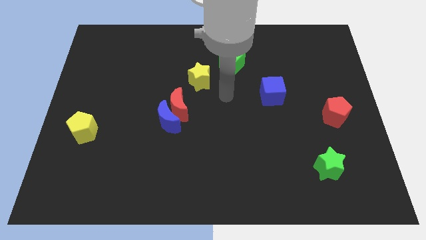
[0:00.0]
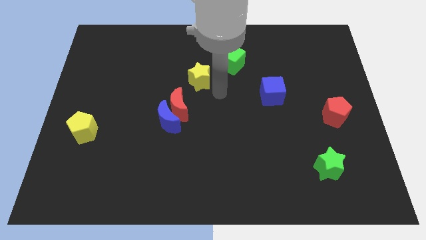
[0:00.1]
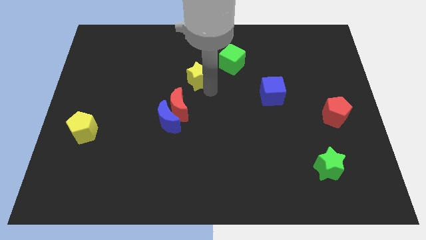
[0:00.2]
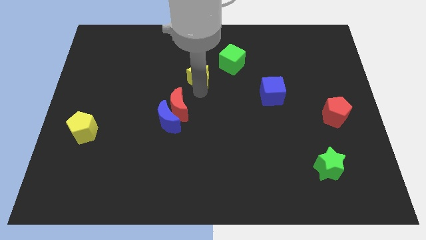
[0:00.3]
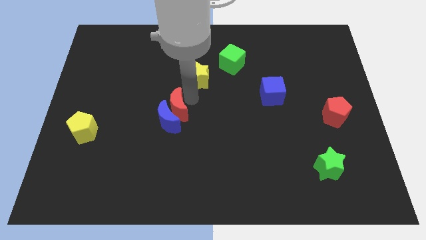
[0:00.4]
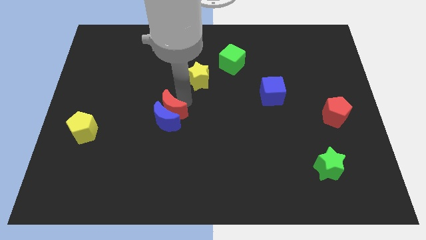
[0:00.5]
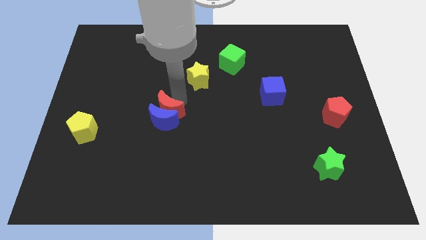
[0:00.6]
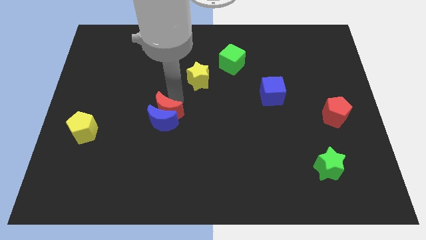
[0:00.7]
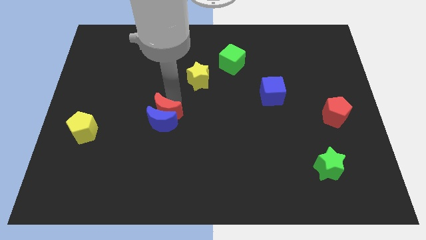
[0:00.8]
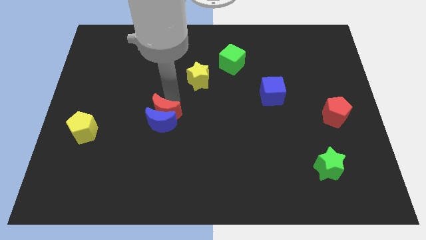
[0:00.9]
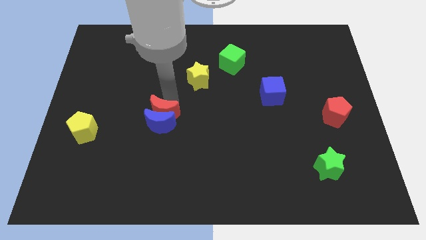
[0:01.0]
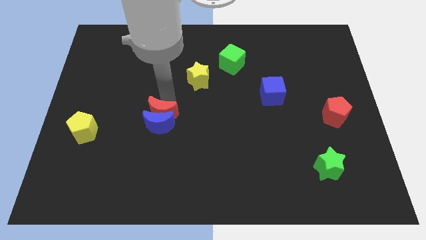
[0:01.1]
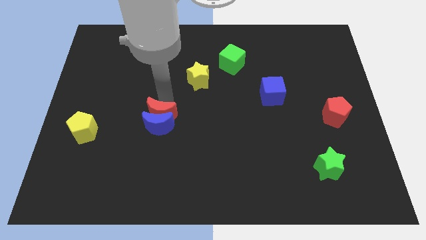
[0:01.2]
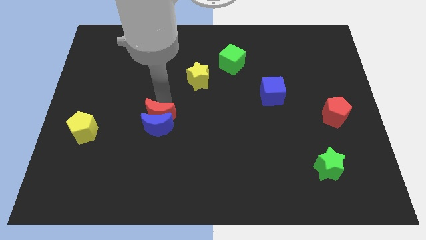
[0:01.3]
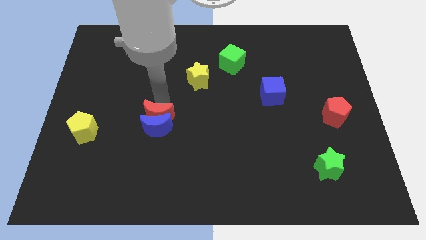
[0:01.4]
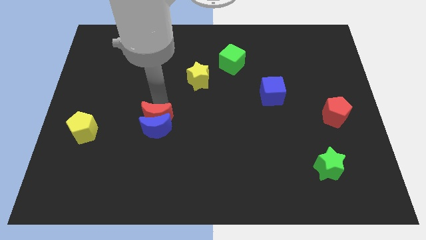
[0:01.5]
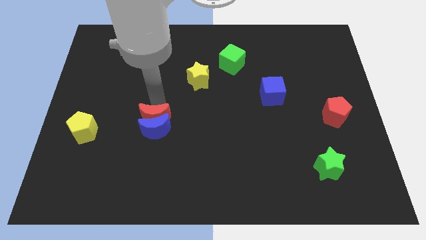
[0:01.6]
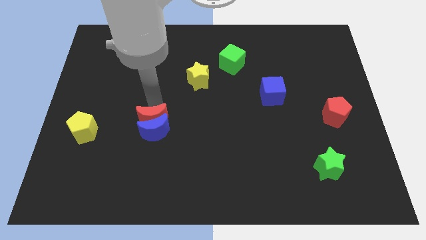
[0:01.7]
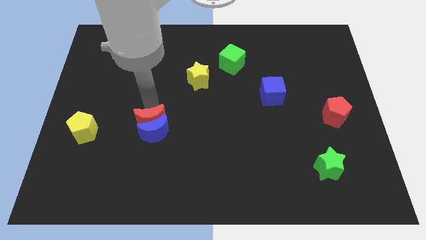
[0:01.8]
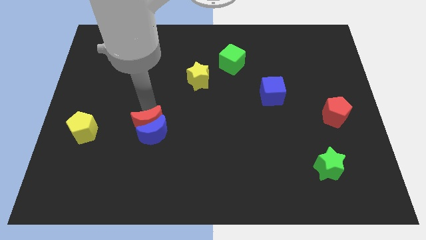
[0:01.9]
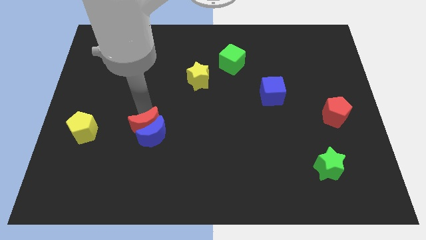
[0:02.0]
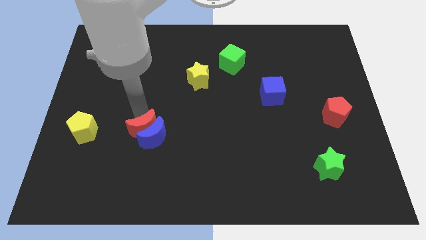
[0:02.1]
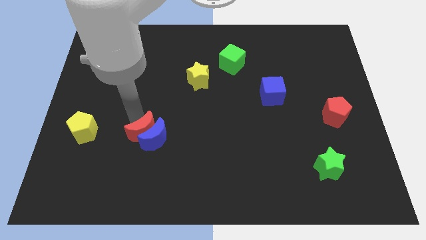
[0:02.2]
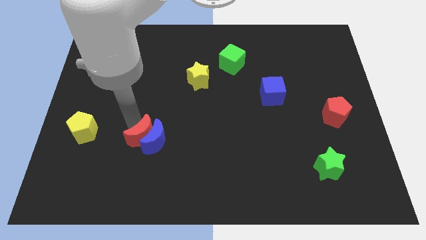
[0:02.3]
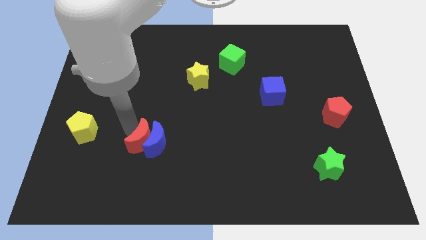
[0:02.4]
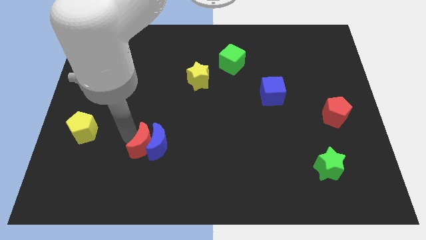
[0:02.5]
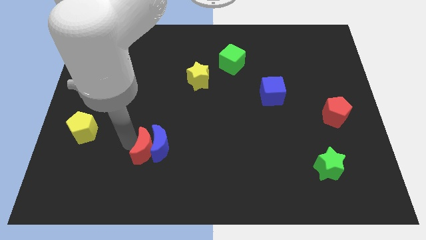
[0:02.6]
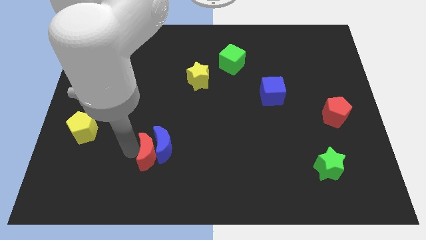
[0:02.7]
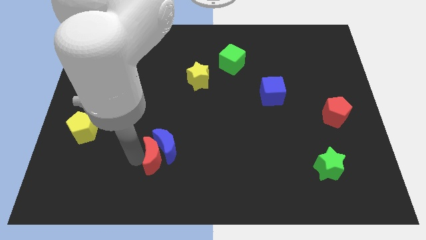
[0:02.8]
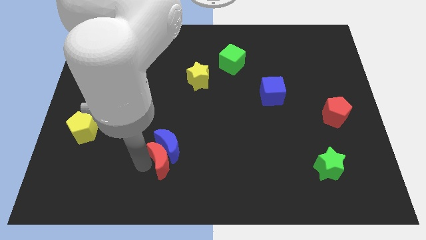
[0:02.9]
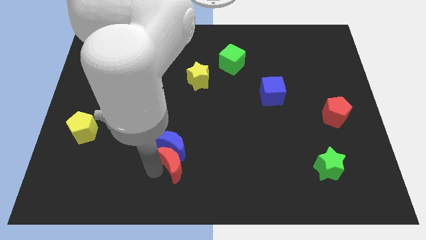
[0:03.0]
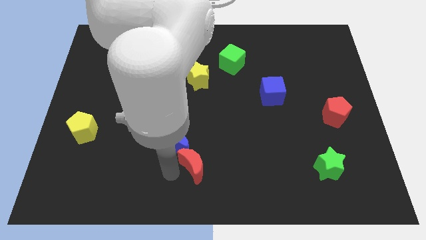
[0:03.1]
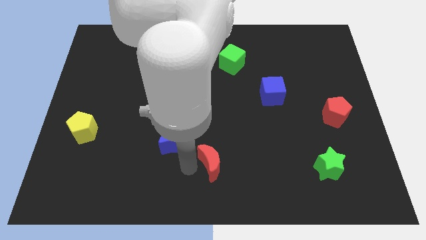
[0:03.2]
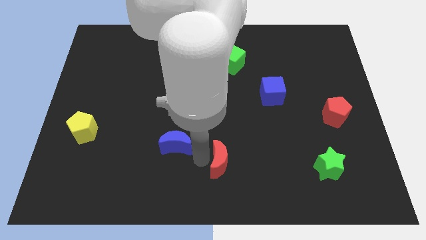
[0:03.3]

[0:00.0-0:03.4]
separate the blue moon from the red moon

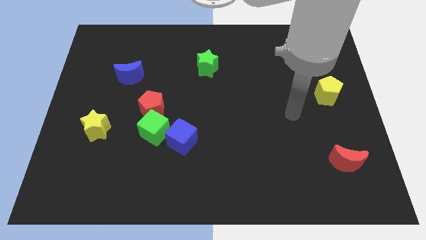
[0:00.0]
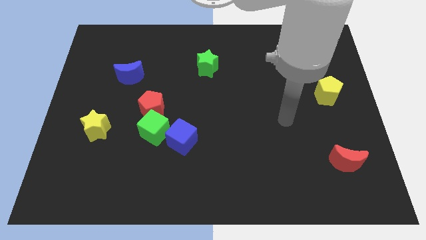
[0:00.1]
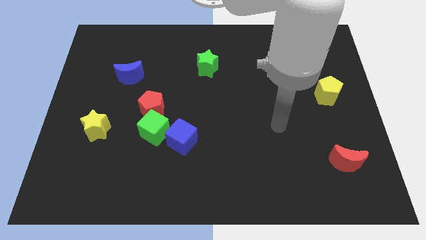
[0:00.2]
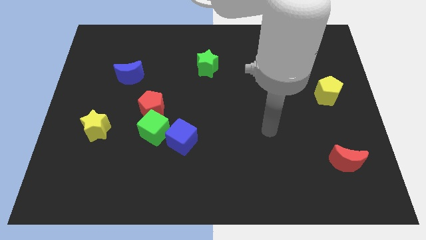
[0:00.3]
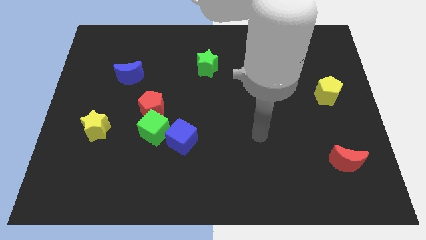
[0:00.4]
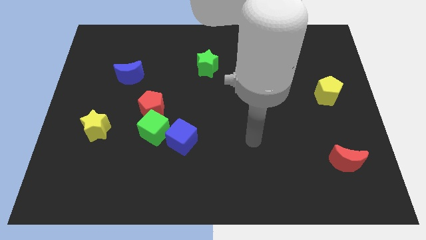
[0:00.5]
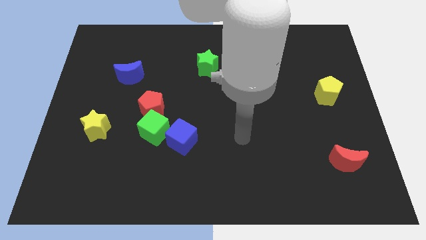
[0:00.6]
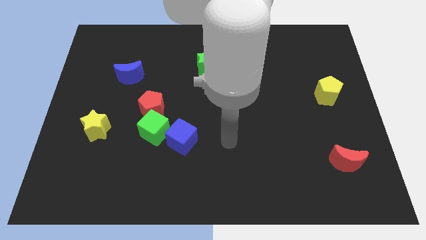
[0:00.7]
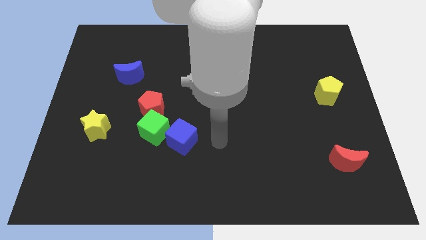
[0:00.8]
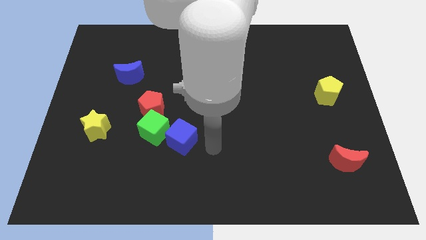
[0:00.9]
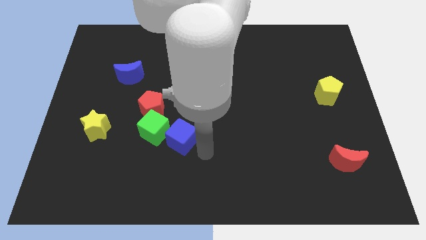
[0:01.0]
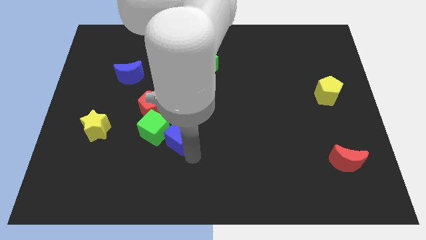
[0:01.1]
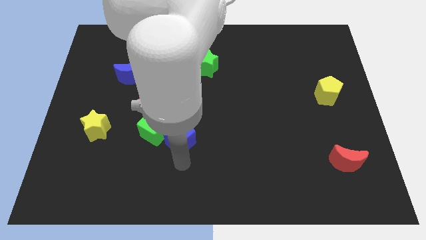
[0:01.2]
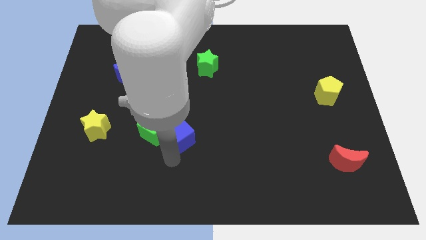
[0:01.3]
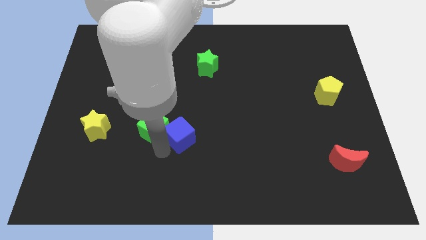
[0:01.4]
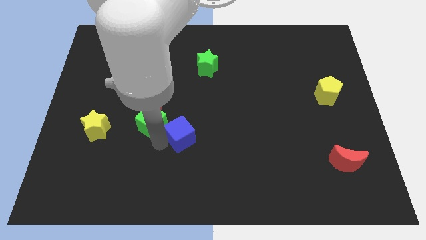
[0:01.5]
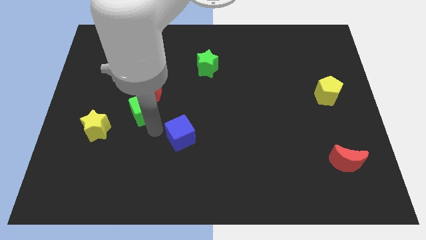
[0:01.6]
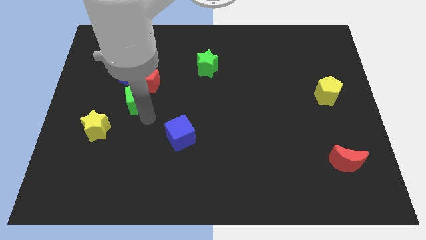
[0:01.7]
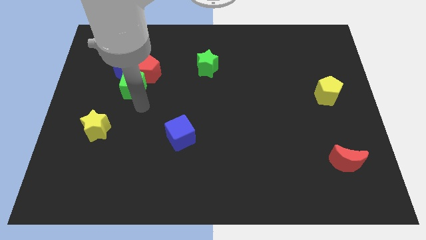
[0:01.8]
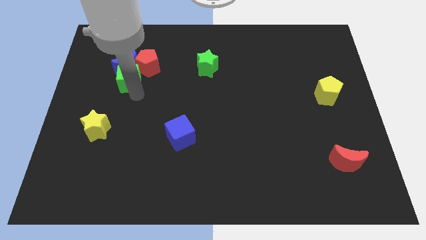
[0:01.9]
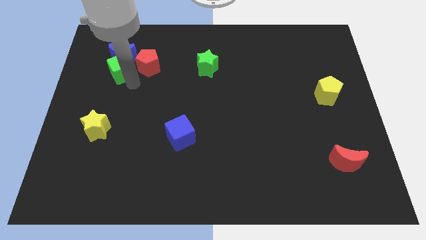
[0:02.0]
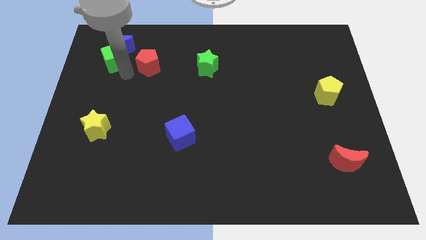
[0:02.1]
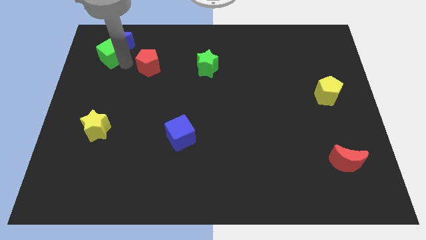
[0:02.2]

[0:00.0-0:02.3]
separate the red pentagon from the green cube

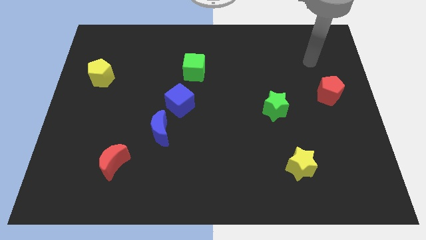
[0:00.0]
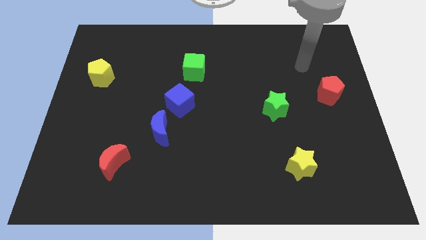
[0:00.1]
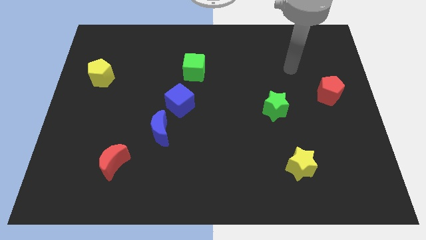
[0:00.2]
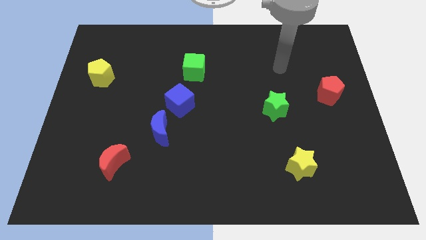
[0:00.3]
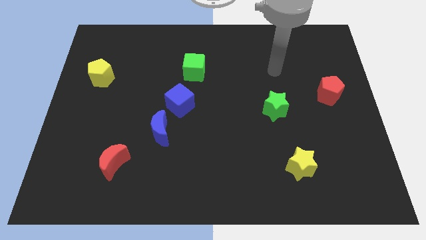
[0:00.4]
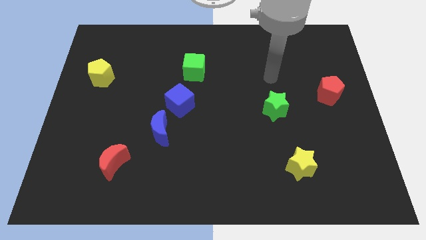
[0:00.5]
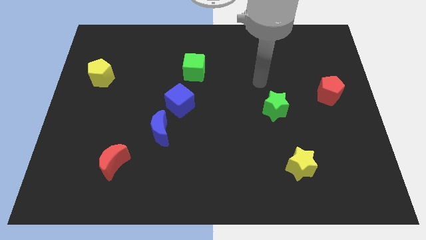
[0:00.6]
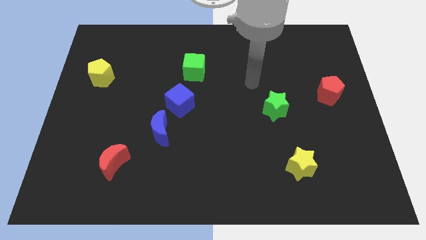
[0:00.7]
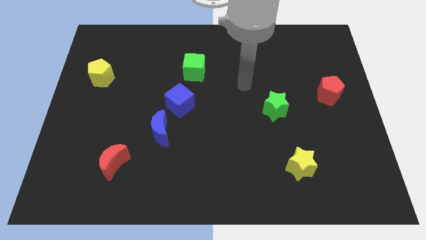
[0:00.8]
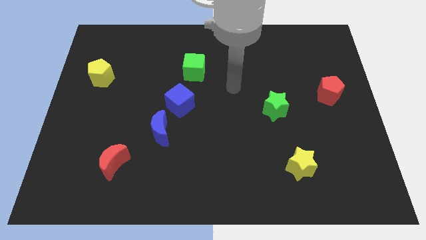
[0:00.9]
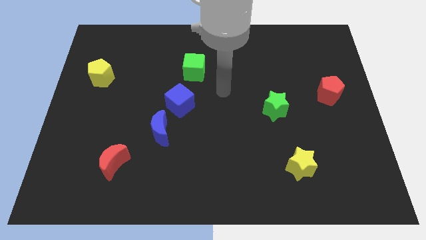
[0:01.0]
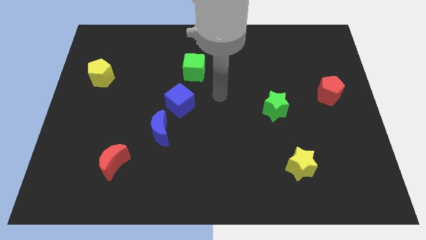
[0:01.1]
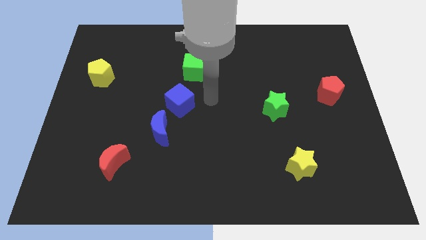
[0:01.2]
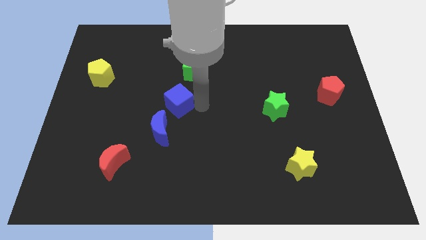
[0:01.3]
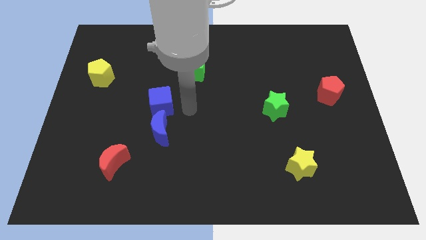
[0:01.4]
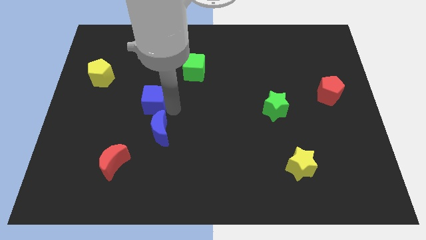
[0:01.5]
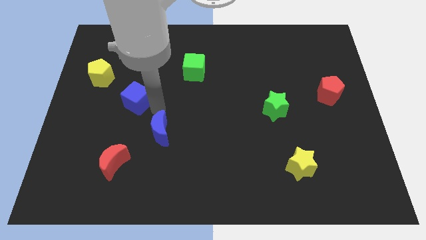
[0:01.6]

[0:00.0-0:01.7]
pull the blue moon apart from the blue cube

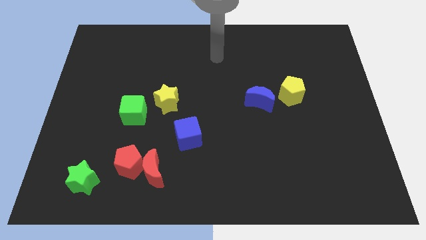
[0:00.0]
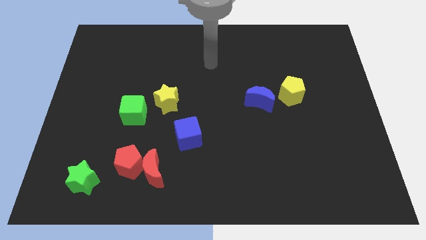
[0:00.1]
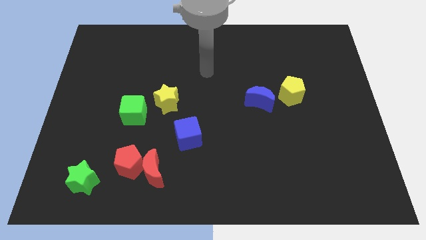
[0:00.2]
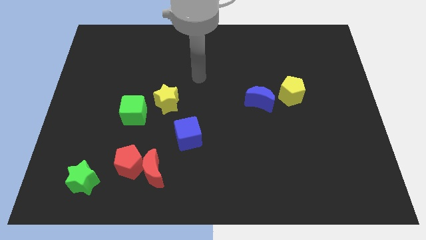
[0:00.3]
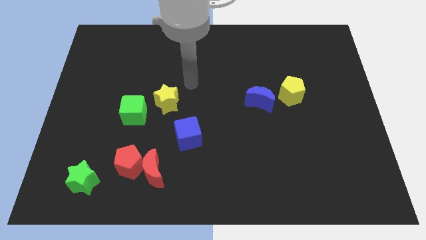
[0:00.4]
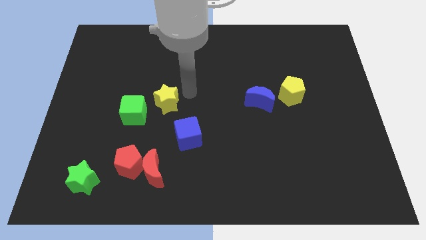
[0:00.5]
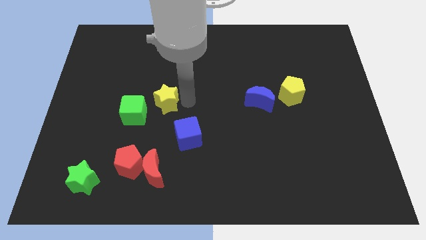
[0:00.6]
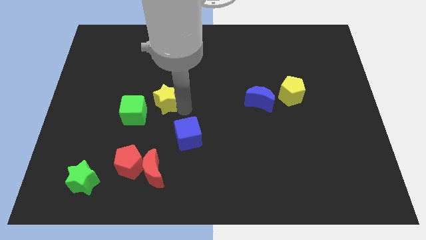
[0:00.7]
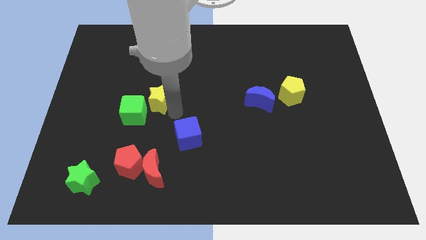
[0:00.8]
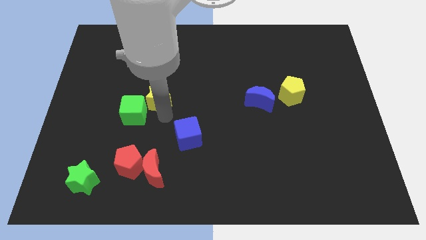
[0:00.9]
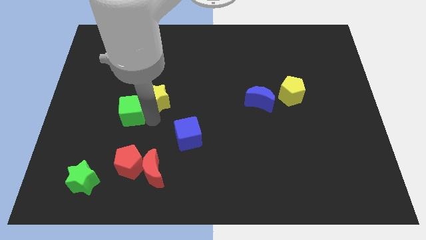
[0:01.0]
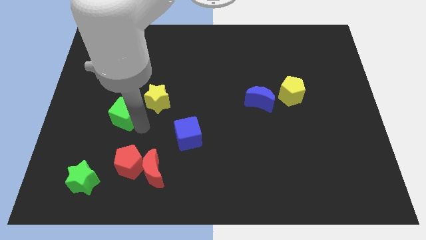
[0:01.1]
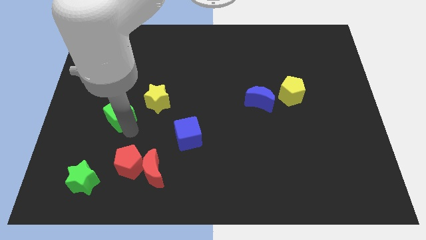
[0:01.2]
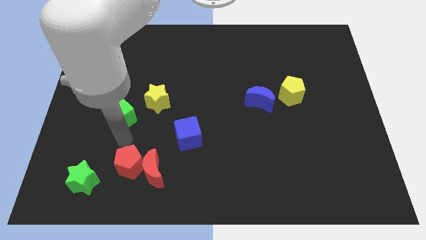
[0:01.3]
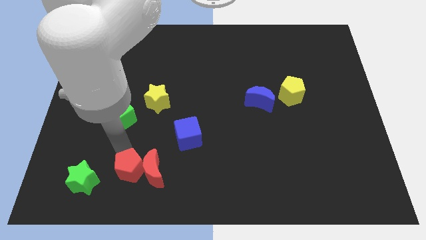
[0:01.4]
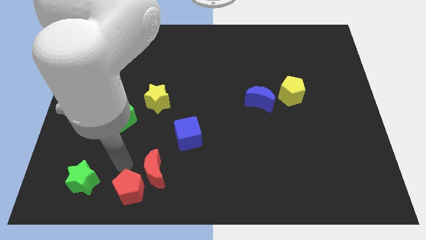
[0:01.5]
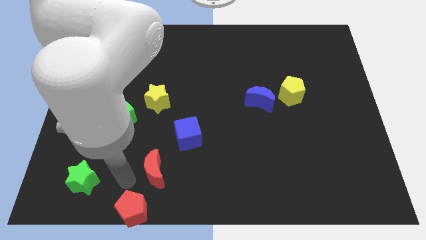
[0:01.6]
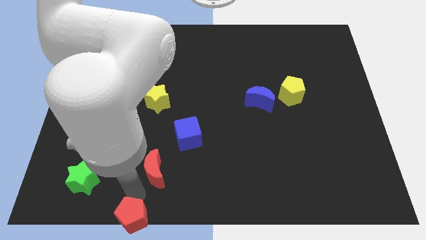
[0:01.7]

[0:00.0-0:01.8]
pull the red moon apart from the red pentagon
